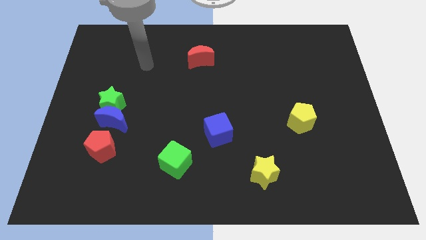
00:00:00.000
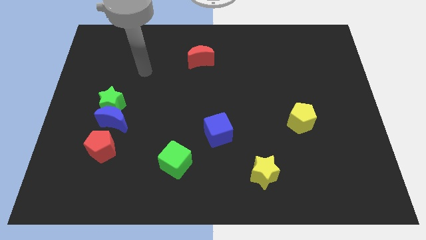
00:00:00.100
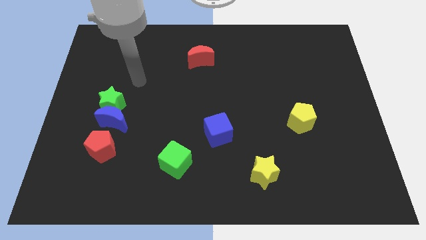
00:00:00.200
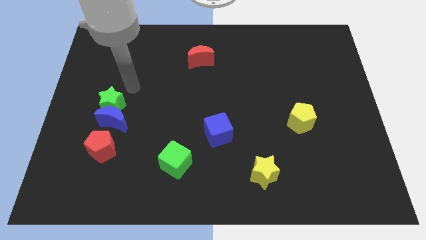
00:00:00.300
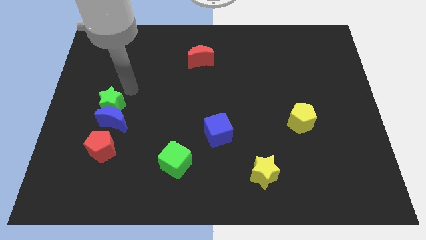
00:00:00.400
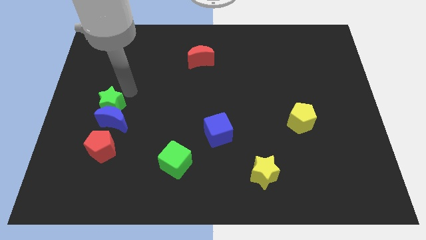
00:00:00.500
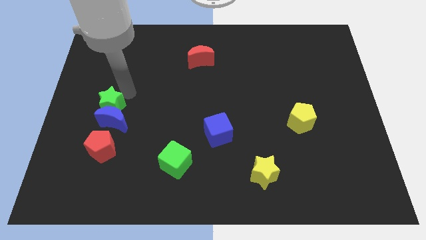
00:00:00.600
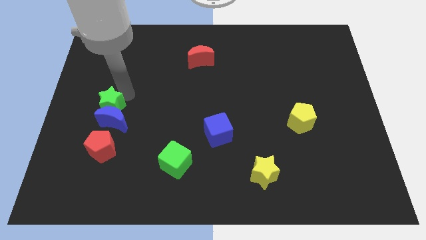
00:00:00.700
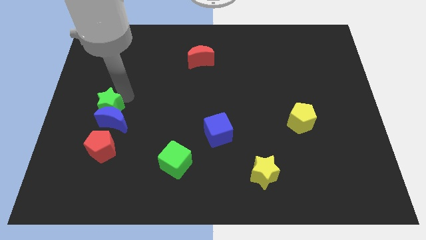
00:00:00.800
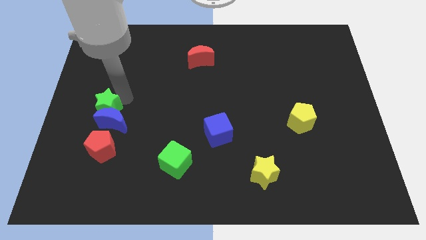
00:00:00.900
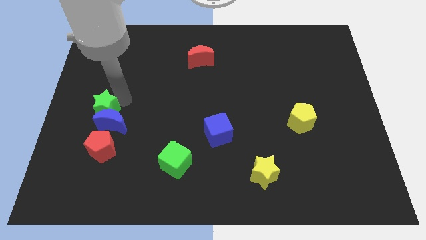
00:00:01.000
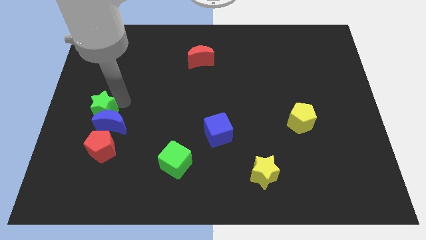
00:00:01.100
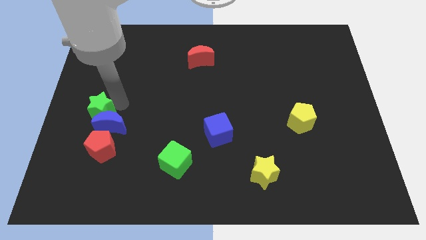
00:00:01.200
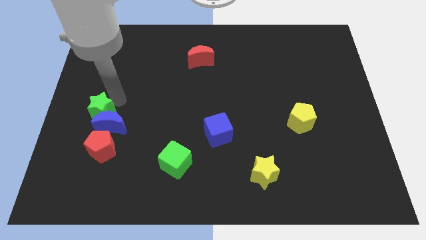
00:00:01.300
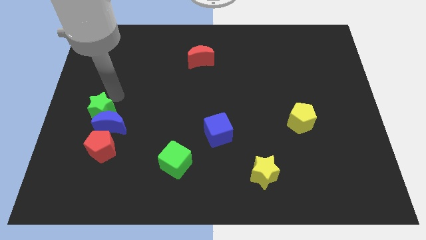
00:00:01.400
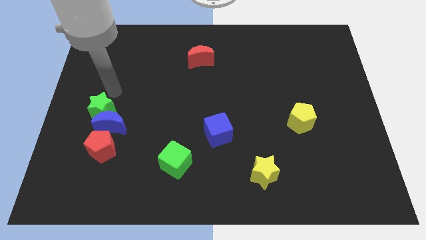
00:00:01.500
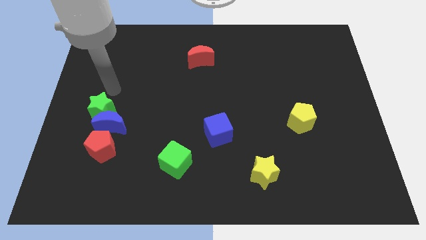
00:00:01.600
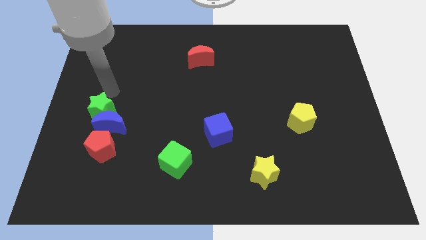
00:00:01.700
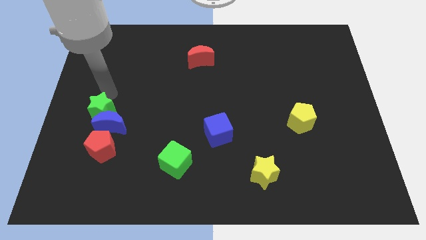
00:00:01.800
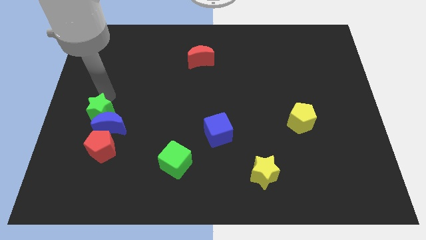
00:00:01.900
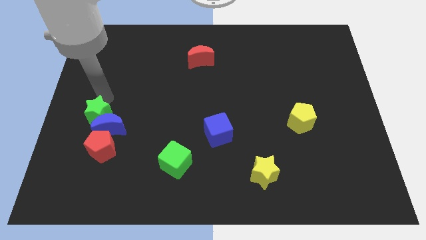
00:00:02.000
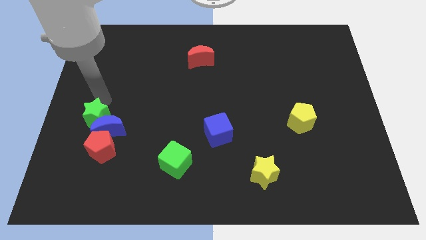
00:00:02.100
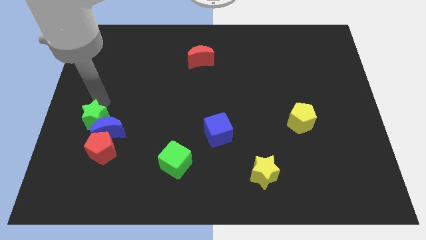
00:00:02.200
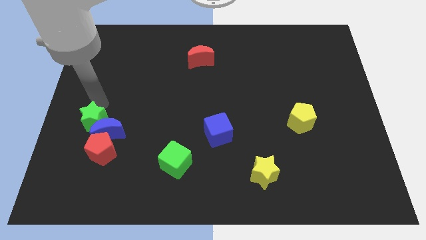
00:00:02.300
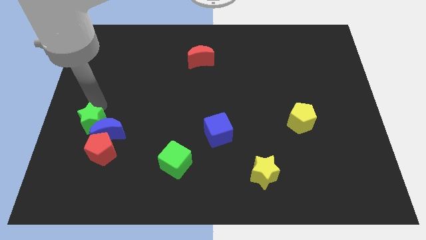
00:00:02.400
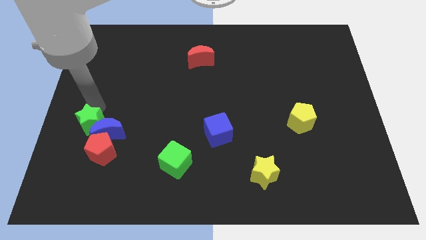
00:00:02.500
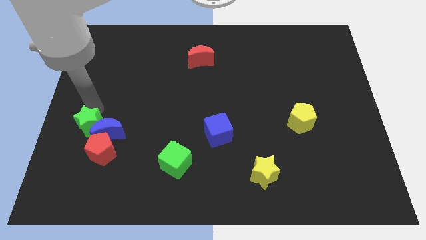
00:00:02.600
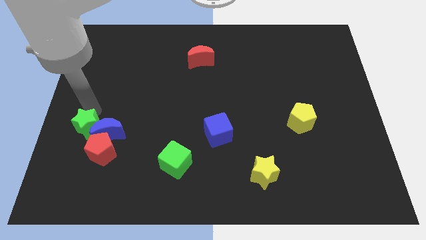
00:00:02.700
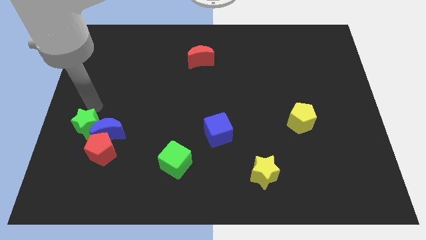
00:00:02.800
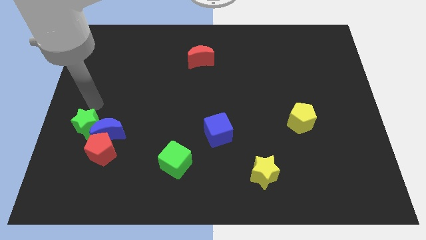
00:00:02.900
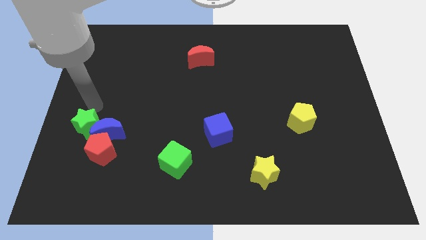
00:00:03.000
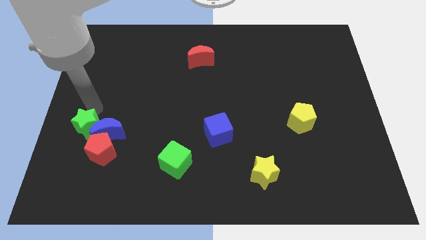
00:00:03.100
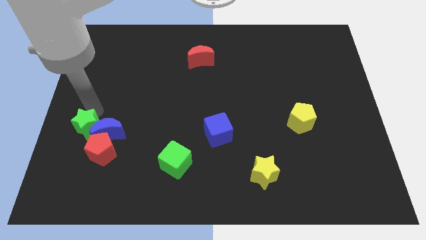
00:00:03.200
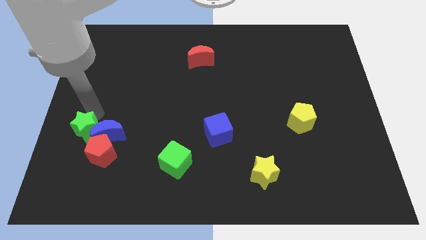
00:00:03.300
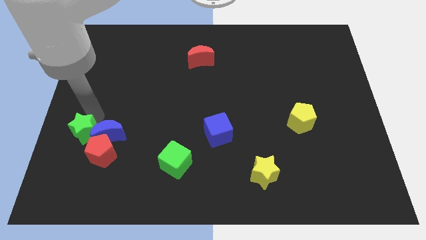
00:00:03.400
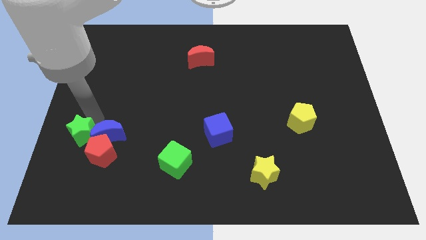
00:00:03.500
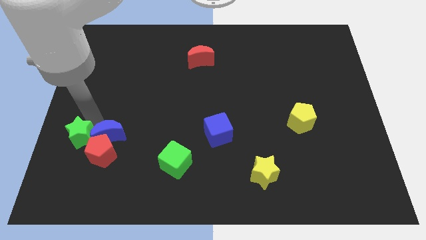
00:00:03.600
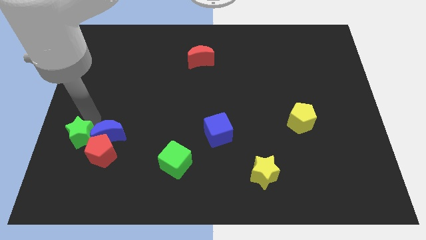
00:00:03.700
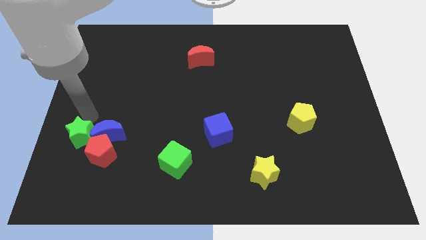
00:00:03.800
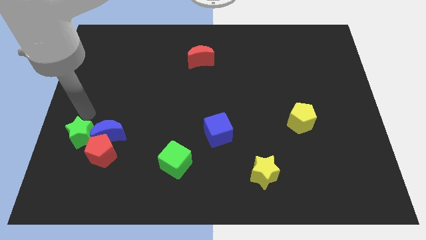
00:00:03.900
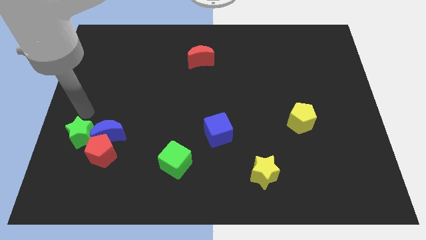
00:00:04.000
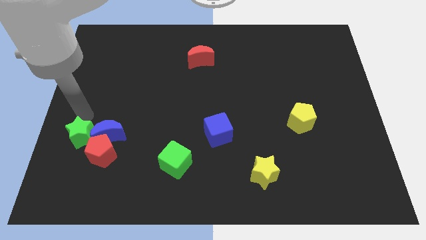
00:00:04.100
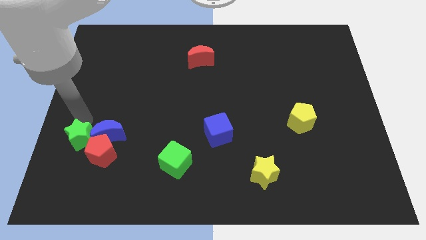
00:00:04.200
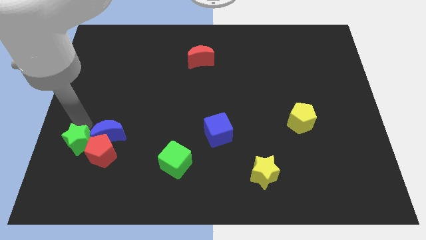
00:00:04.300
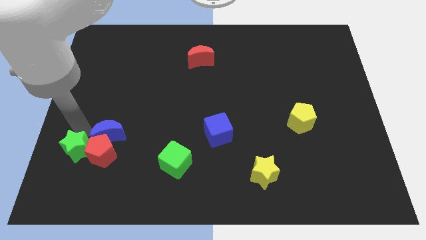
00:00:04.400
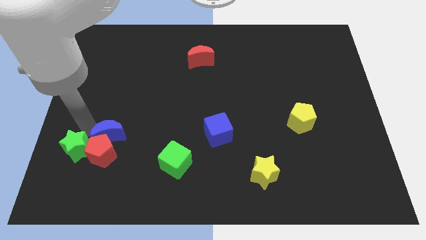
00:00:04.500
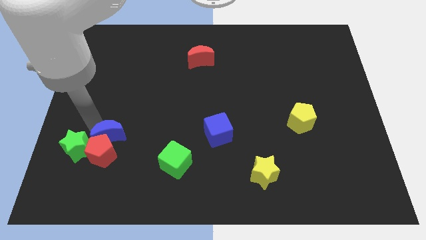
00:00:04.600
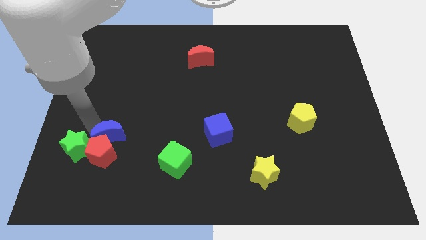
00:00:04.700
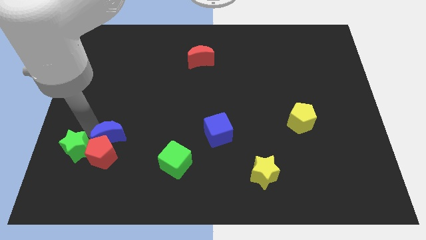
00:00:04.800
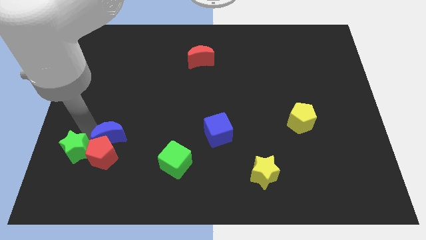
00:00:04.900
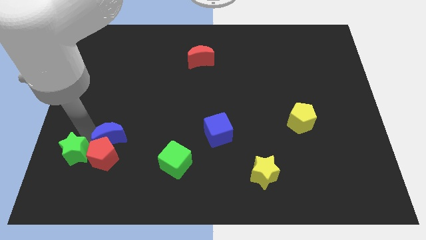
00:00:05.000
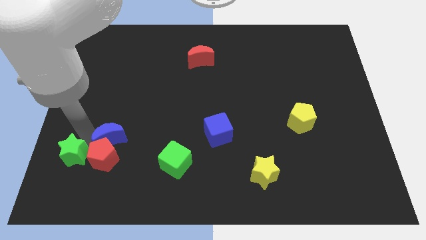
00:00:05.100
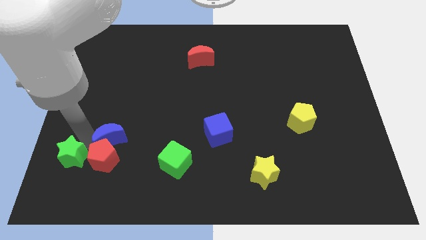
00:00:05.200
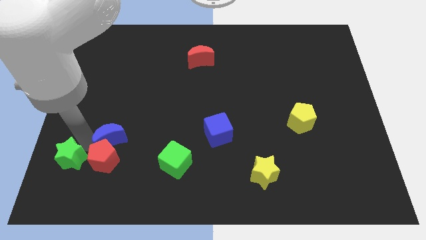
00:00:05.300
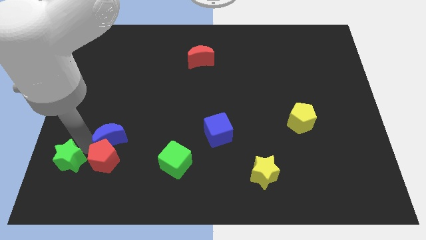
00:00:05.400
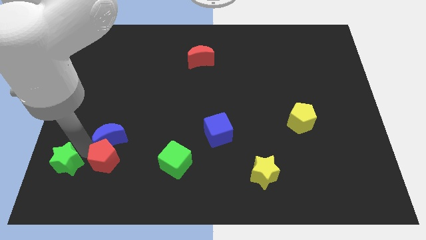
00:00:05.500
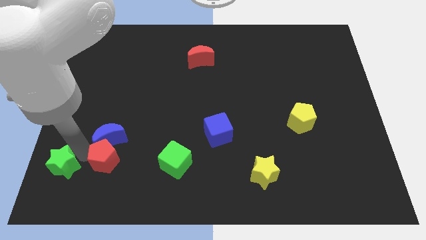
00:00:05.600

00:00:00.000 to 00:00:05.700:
move the green star to the bottom left
